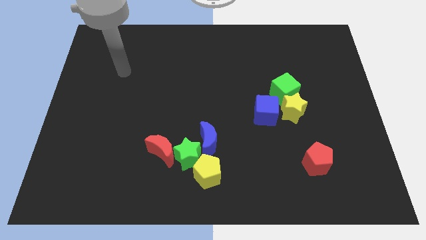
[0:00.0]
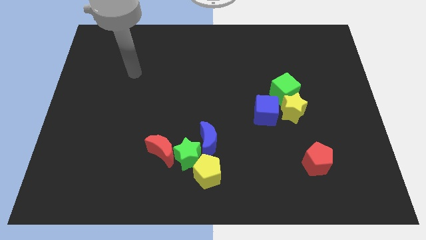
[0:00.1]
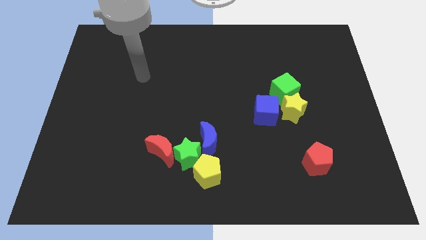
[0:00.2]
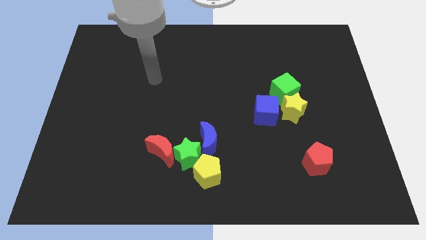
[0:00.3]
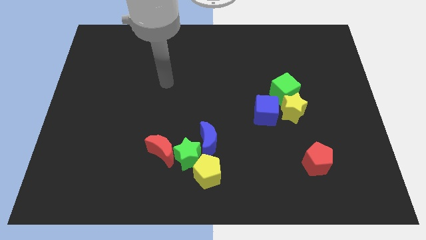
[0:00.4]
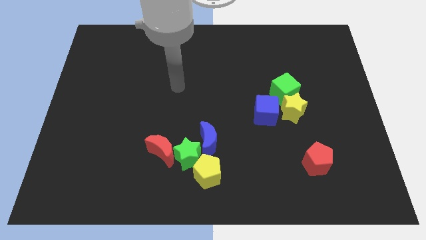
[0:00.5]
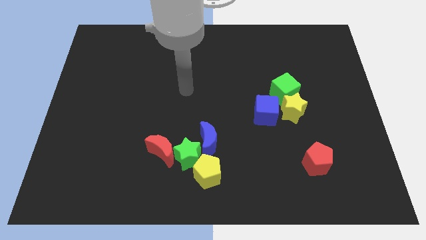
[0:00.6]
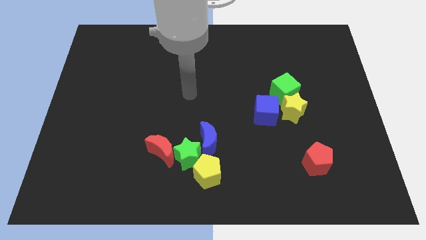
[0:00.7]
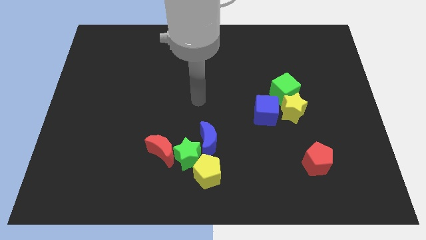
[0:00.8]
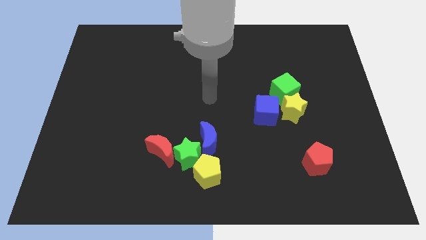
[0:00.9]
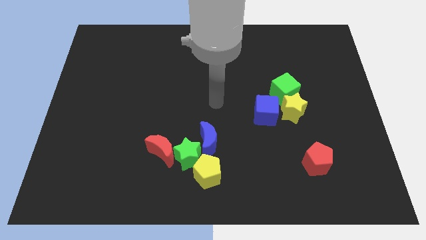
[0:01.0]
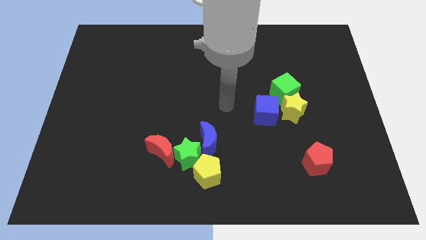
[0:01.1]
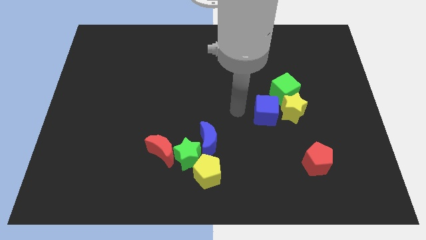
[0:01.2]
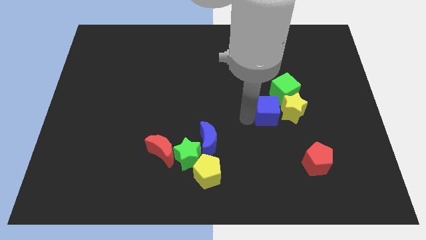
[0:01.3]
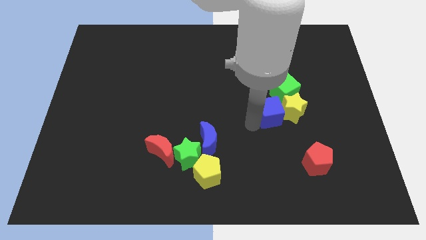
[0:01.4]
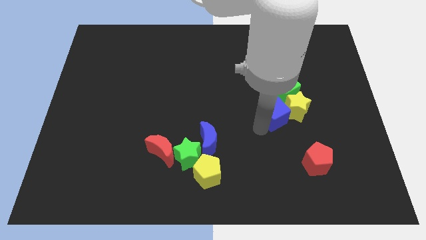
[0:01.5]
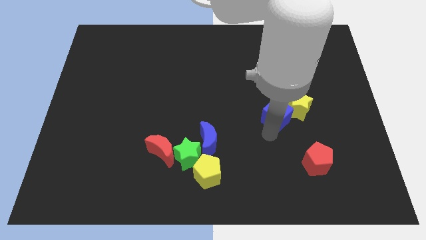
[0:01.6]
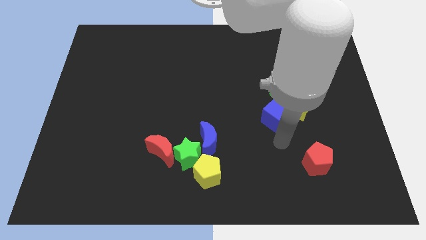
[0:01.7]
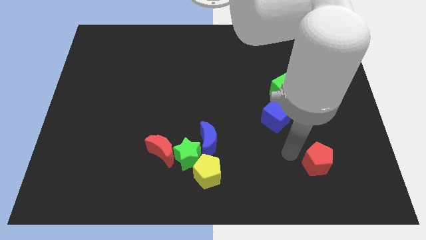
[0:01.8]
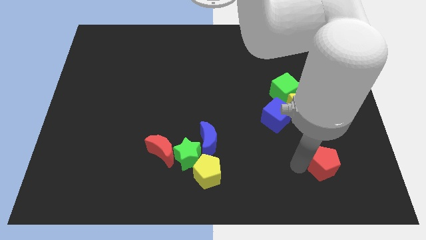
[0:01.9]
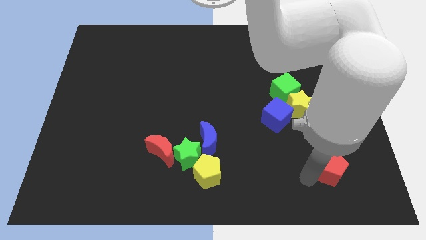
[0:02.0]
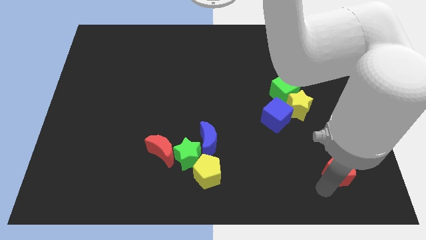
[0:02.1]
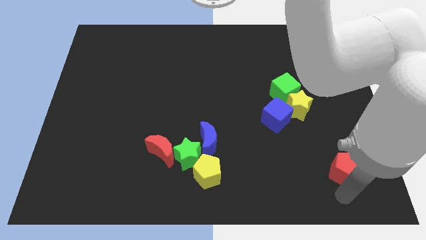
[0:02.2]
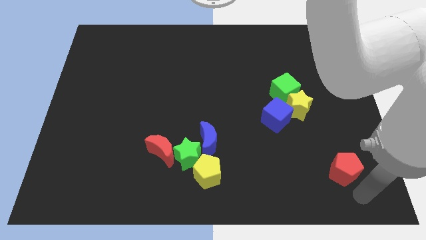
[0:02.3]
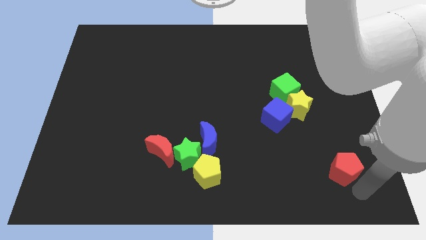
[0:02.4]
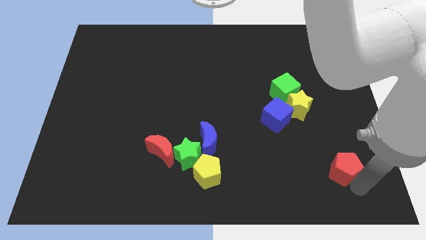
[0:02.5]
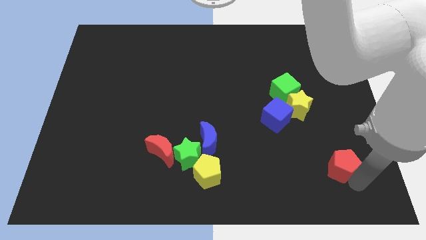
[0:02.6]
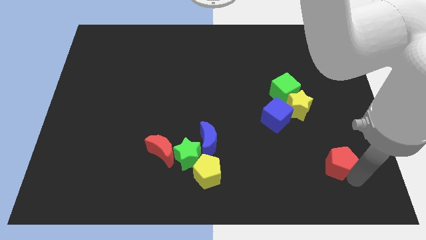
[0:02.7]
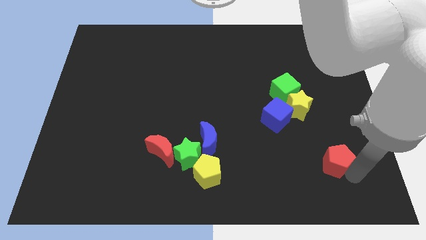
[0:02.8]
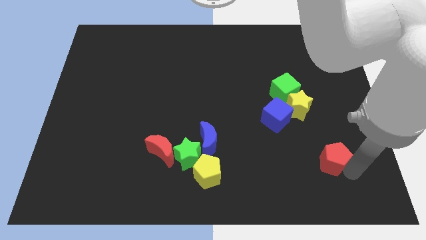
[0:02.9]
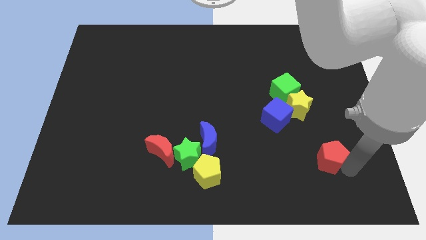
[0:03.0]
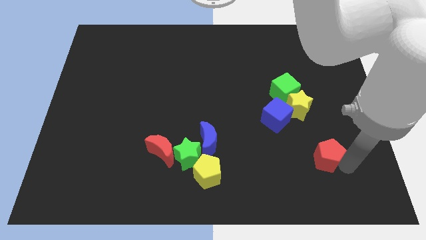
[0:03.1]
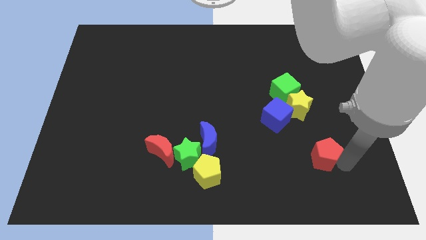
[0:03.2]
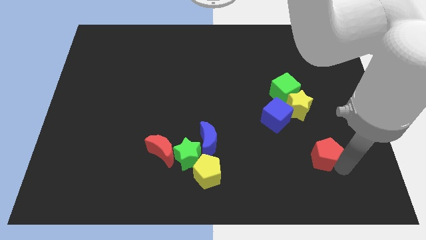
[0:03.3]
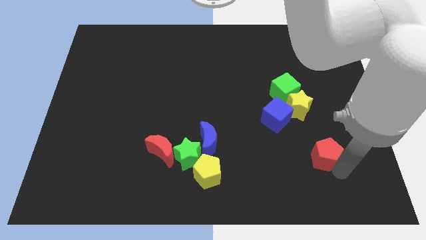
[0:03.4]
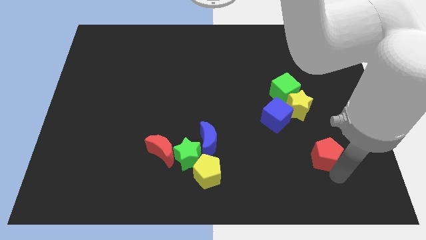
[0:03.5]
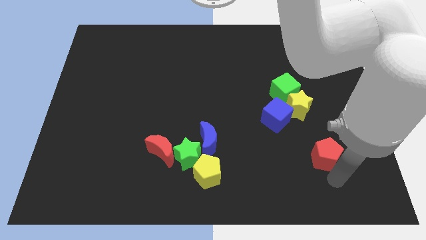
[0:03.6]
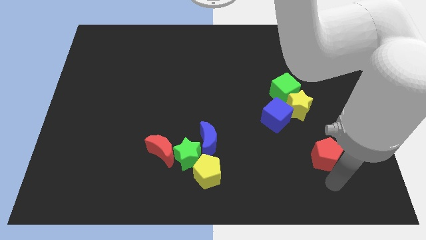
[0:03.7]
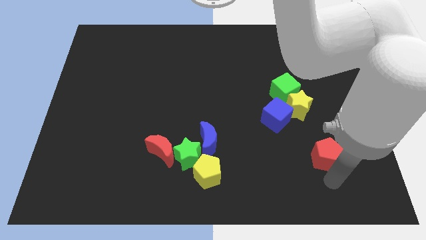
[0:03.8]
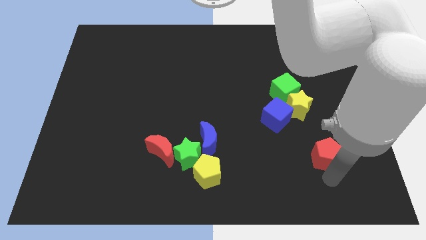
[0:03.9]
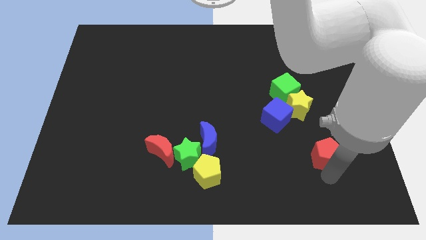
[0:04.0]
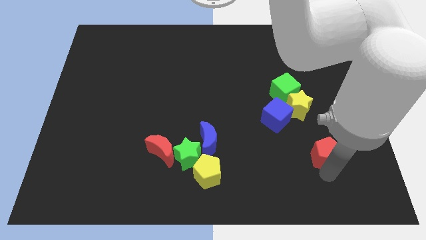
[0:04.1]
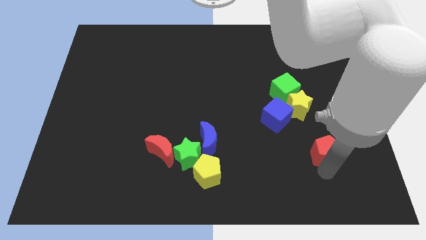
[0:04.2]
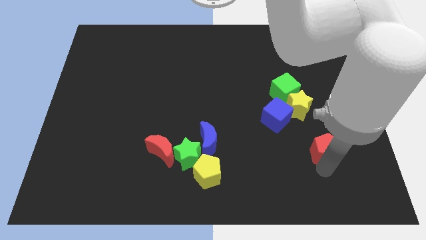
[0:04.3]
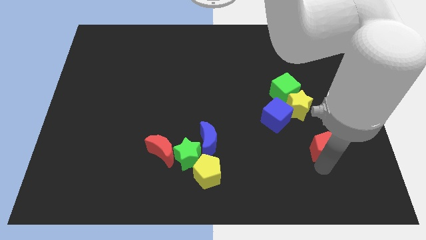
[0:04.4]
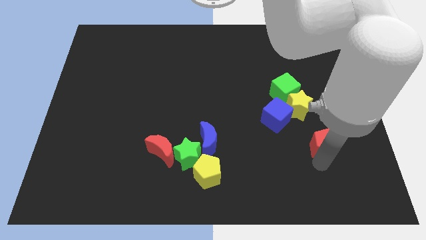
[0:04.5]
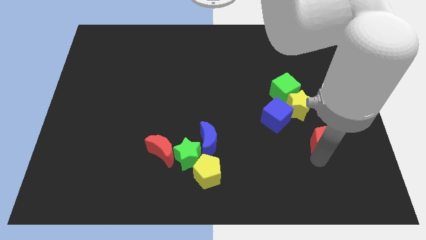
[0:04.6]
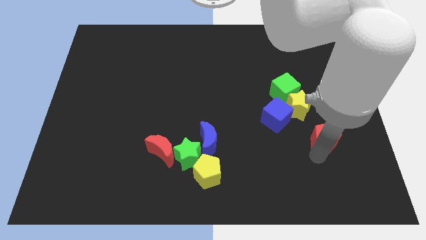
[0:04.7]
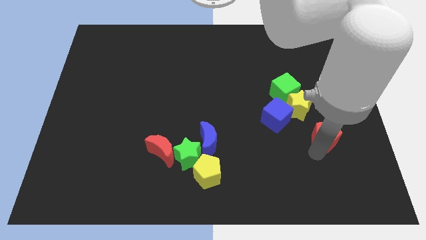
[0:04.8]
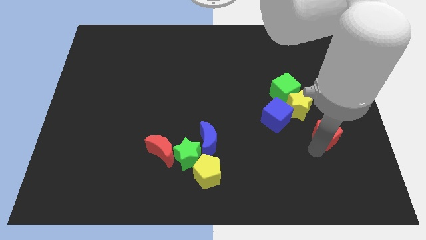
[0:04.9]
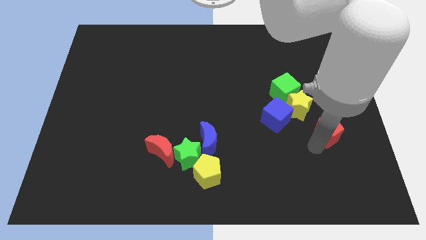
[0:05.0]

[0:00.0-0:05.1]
move the red pentagon a little up

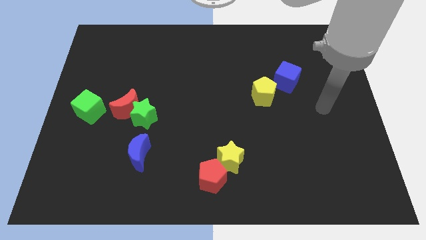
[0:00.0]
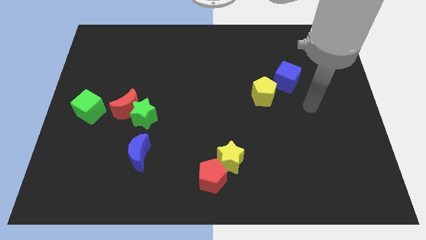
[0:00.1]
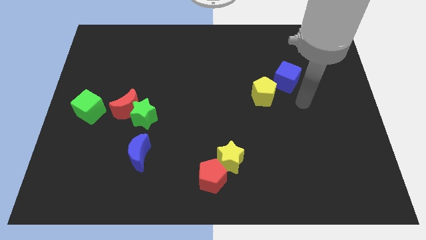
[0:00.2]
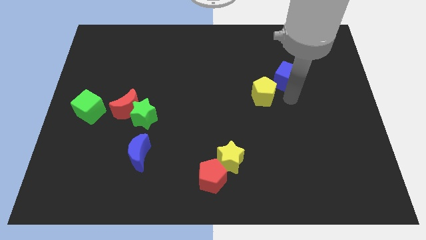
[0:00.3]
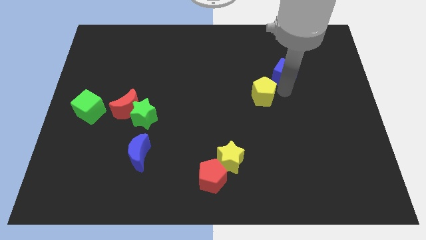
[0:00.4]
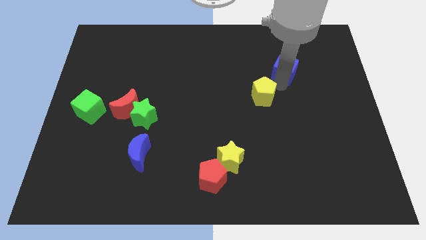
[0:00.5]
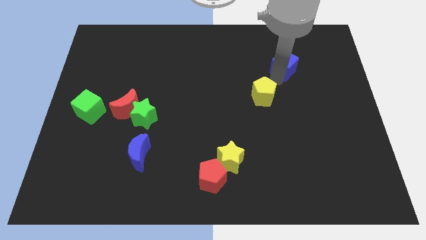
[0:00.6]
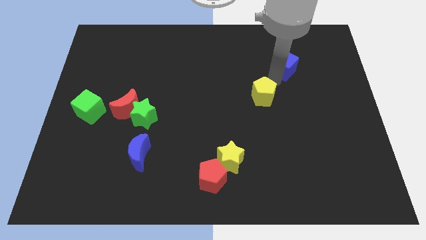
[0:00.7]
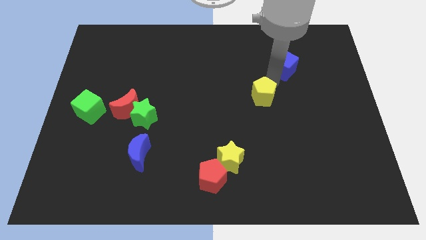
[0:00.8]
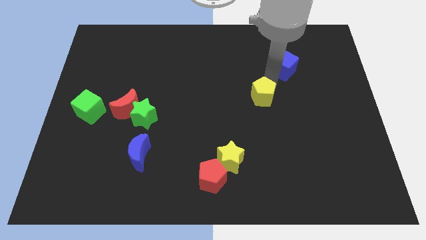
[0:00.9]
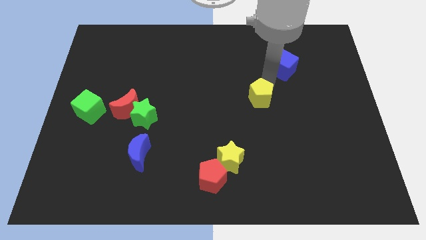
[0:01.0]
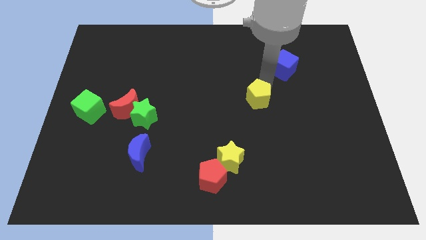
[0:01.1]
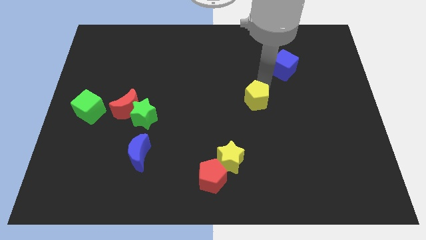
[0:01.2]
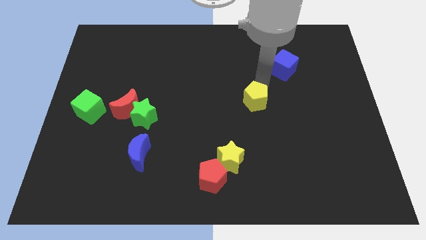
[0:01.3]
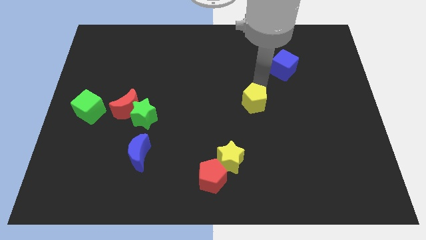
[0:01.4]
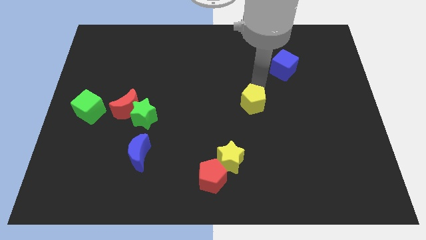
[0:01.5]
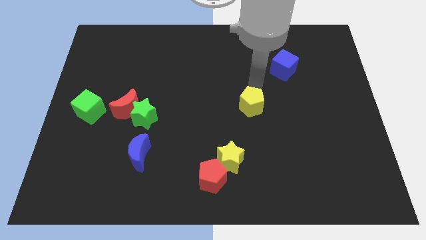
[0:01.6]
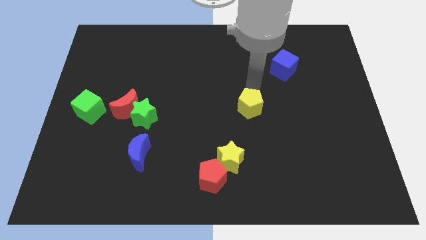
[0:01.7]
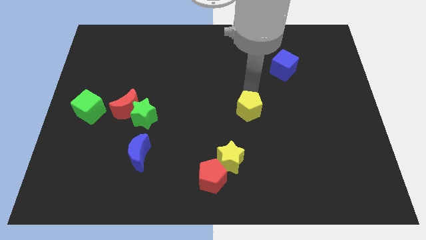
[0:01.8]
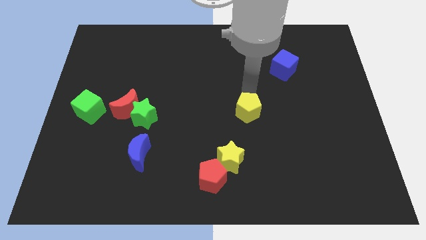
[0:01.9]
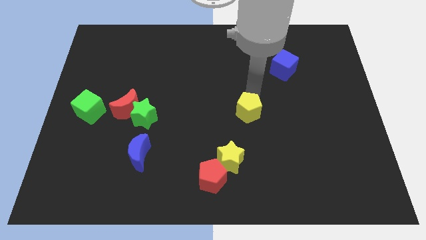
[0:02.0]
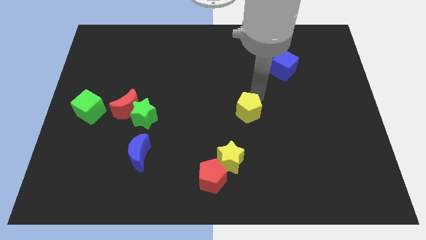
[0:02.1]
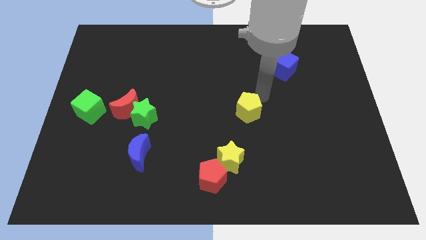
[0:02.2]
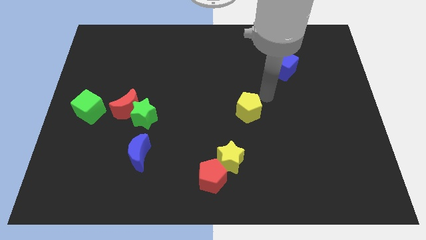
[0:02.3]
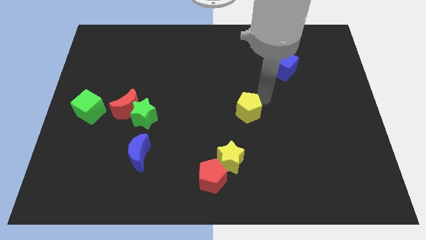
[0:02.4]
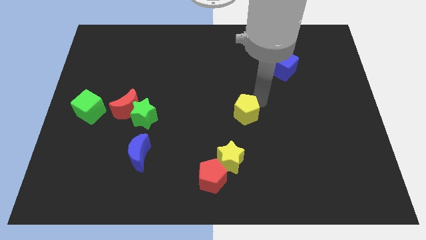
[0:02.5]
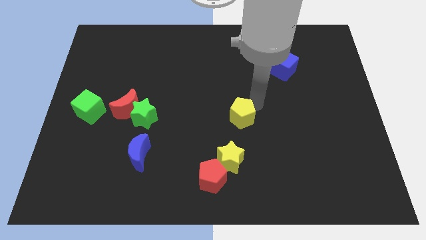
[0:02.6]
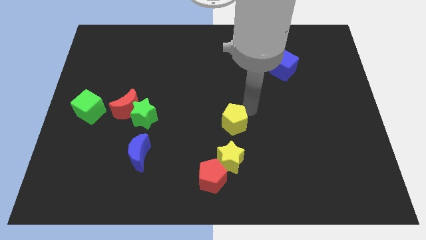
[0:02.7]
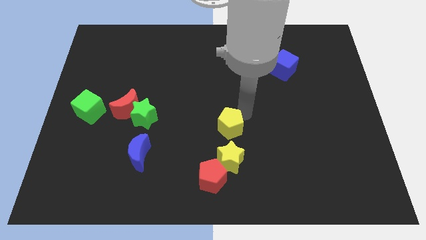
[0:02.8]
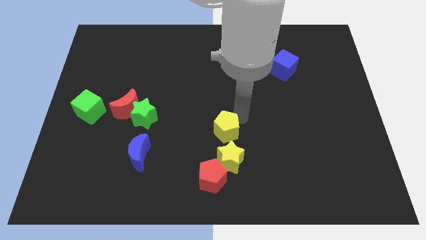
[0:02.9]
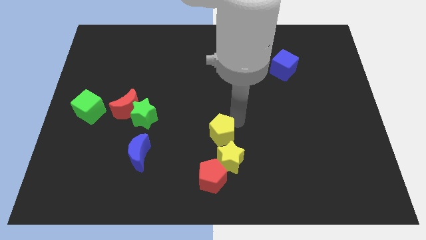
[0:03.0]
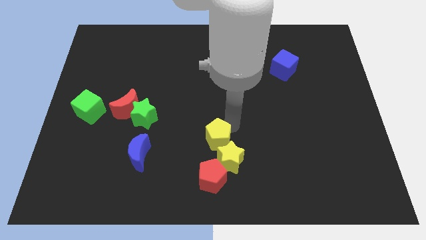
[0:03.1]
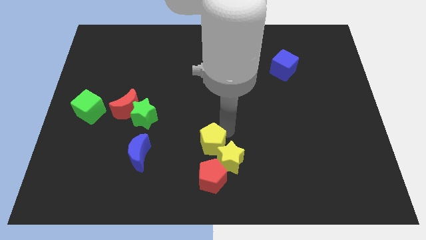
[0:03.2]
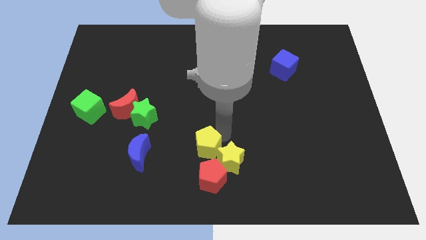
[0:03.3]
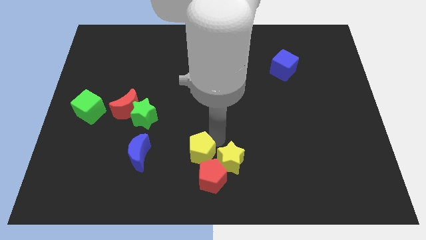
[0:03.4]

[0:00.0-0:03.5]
move the yellow pentagon downwards and then to the left
